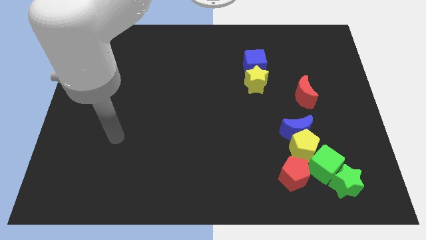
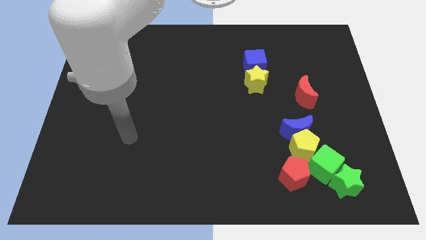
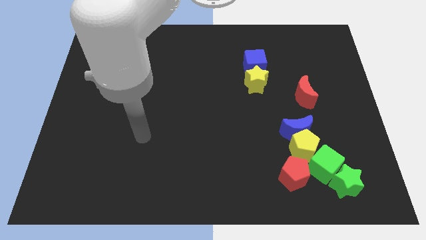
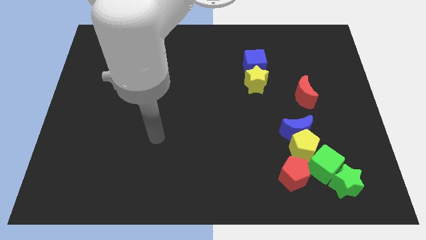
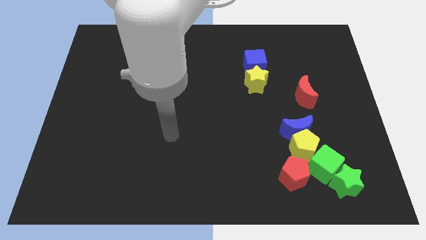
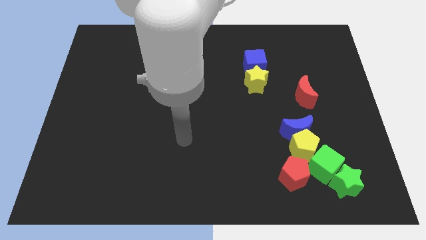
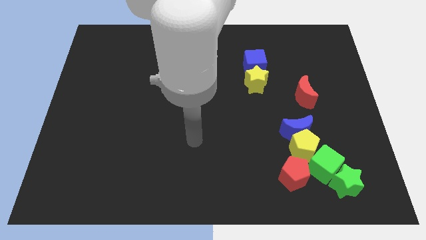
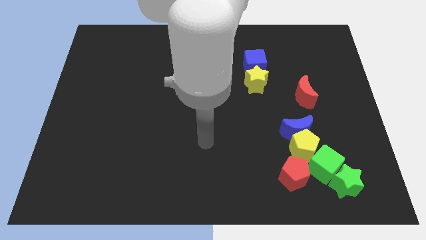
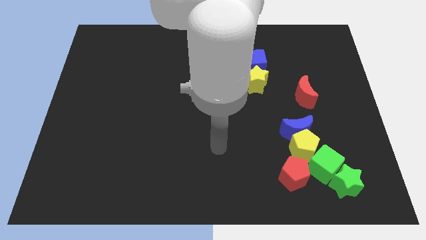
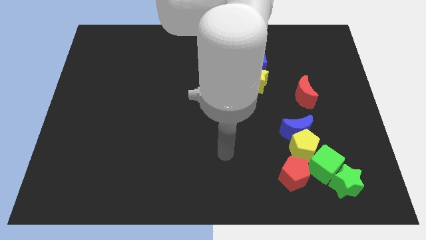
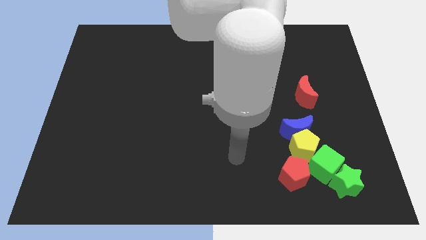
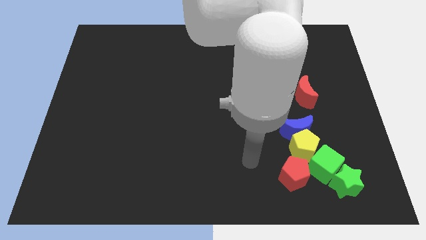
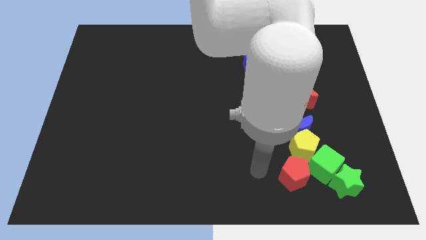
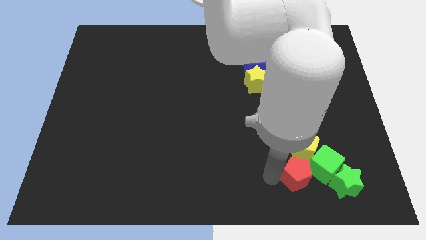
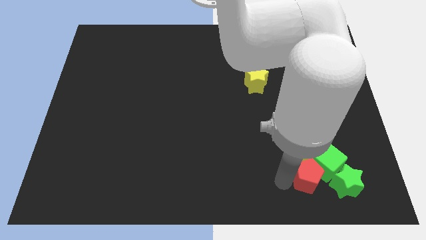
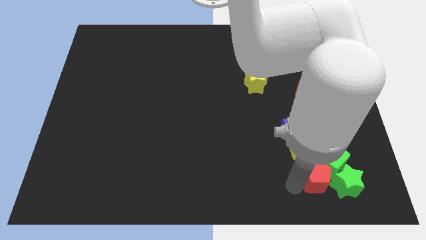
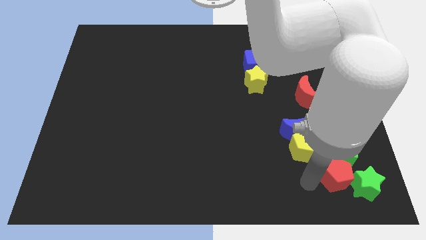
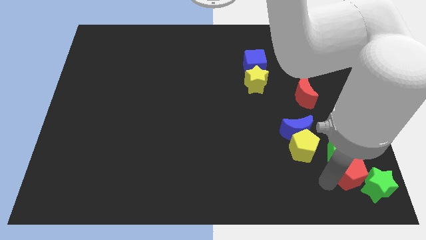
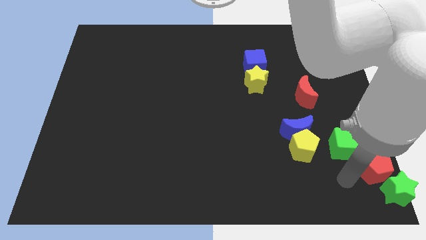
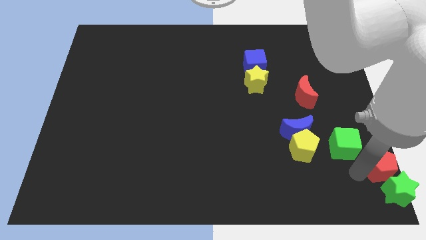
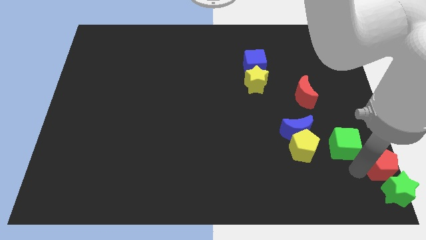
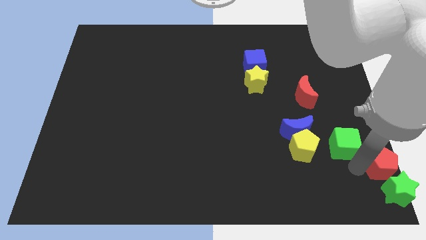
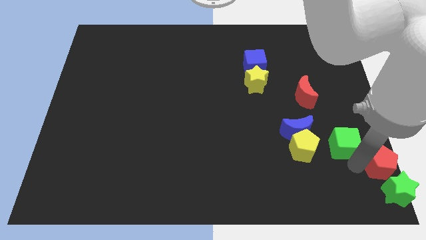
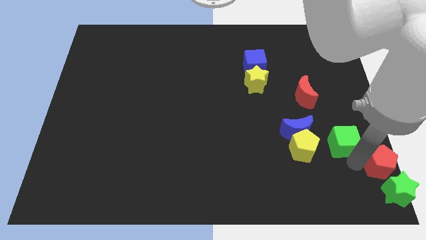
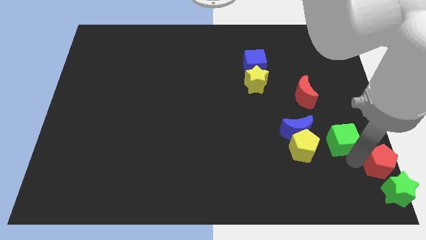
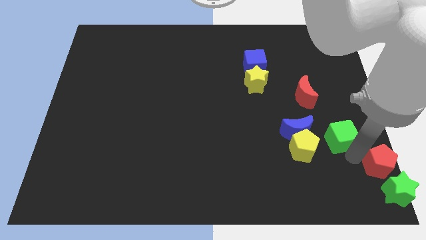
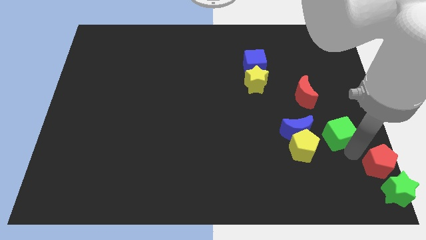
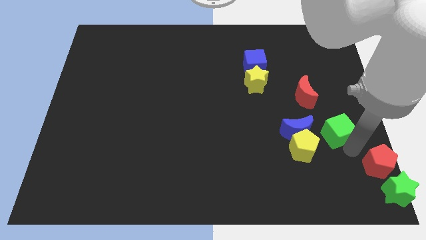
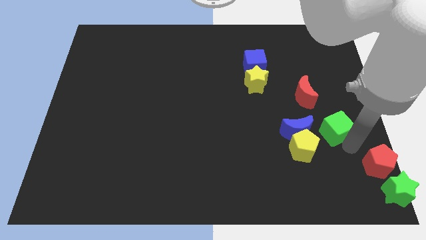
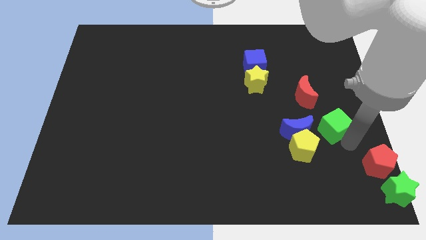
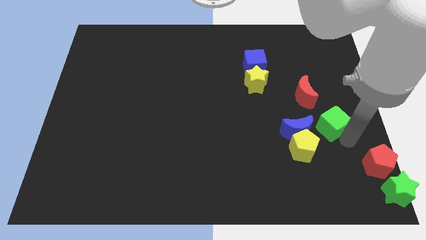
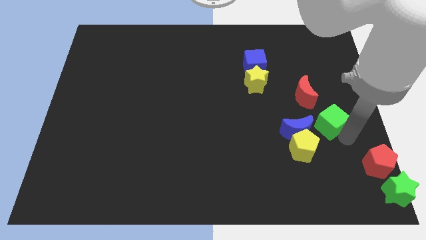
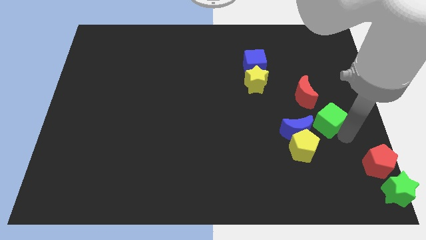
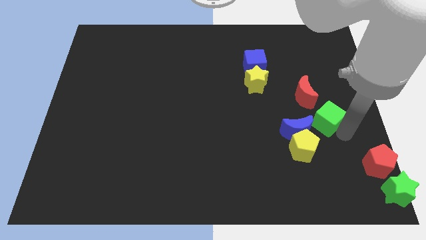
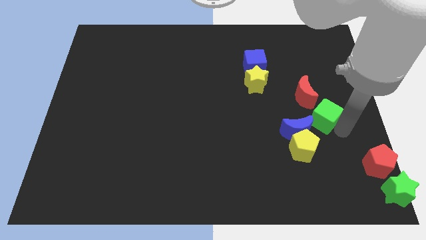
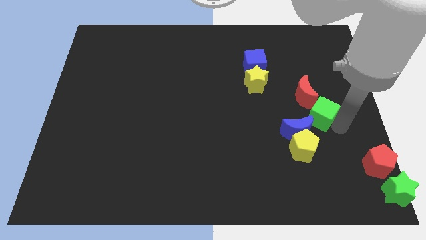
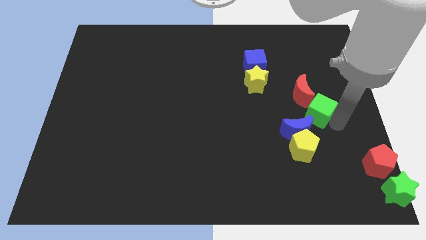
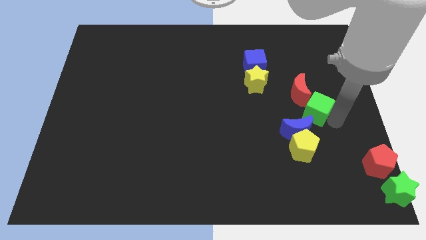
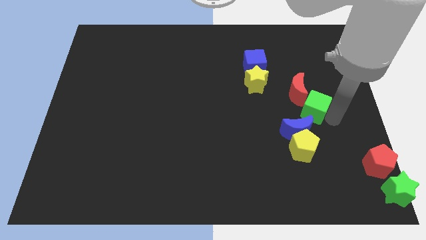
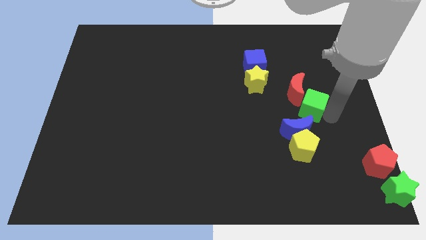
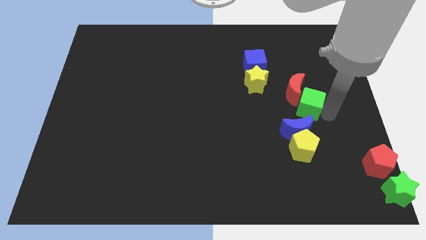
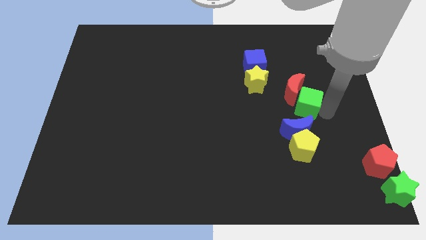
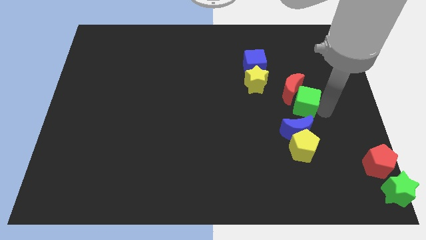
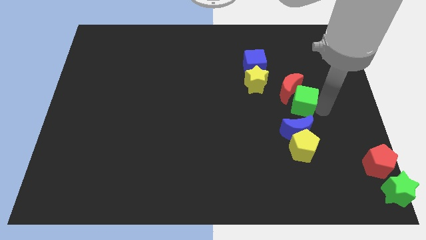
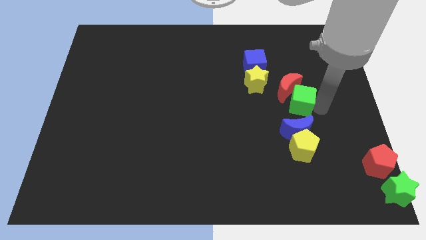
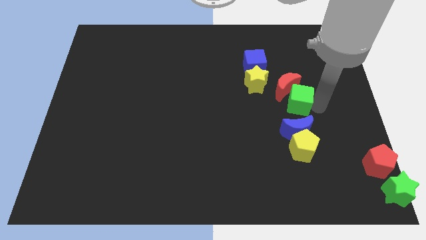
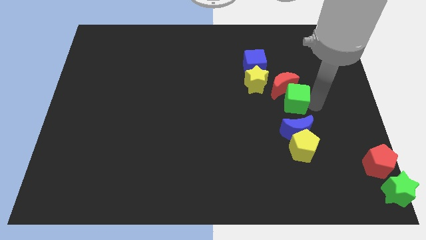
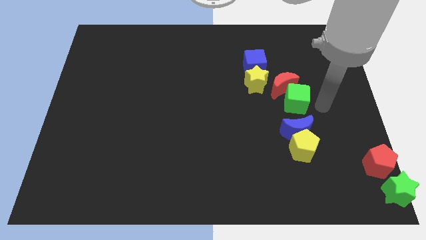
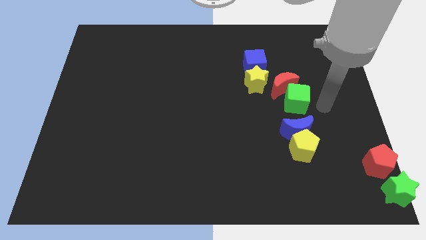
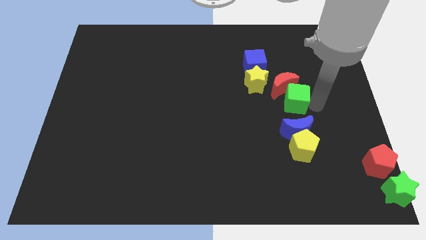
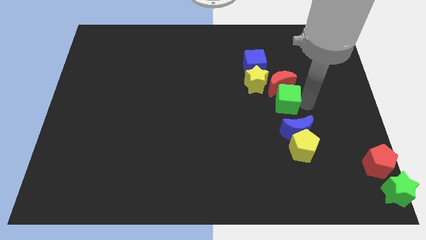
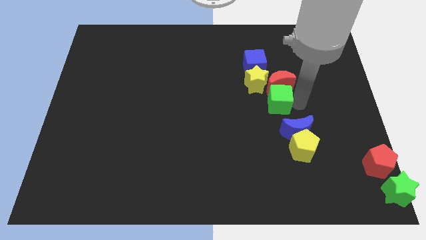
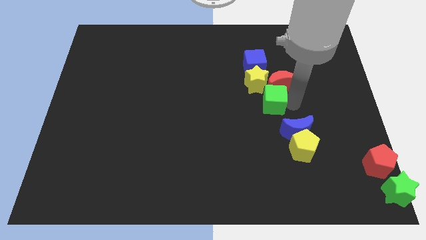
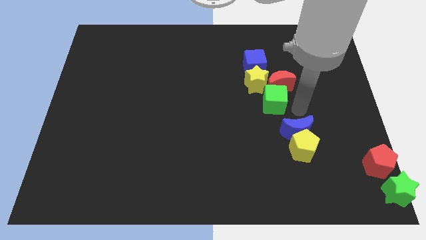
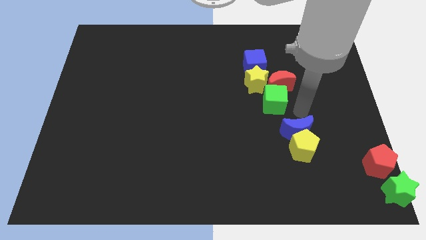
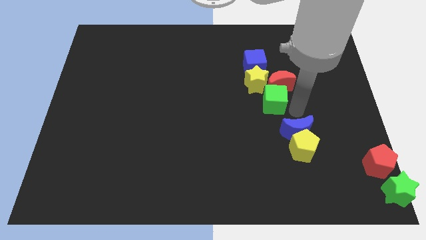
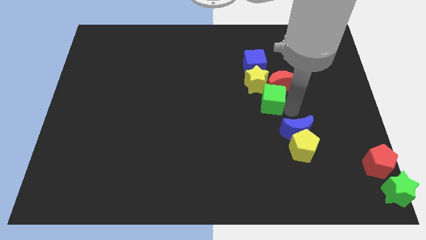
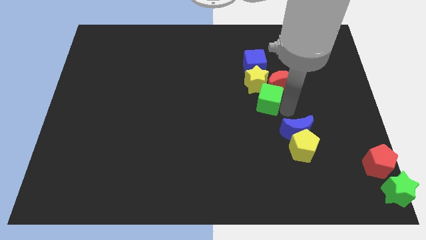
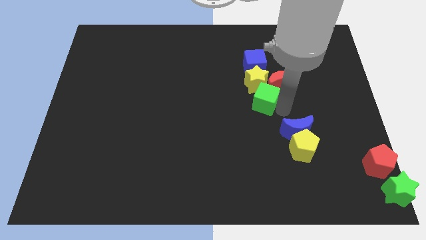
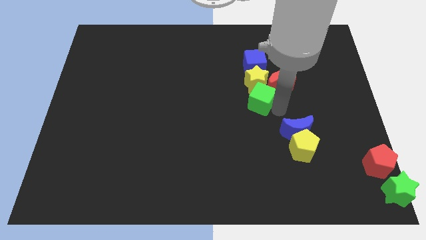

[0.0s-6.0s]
push the green cube upwards and to the left

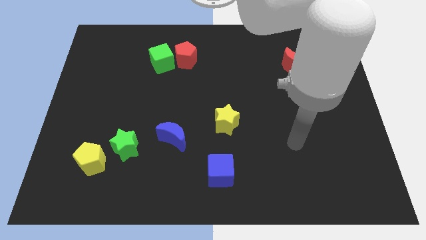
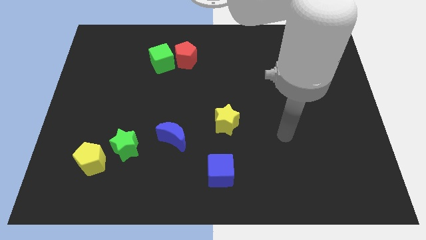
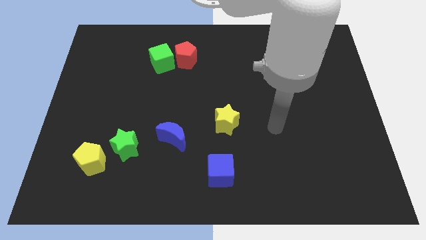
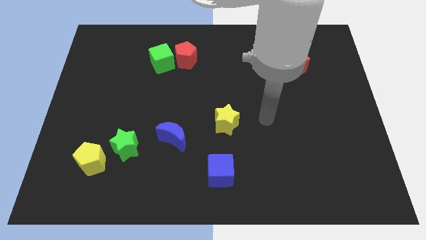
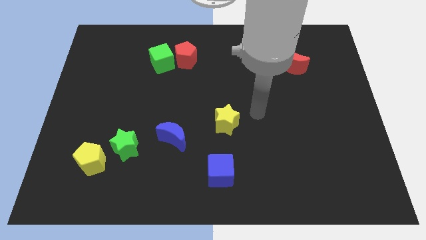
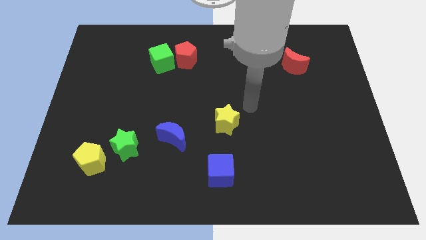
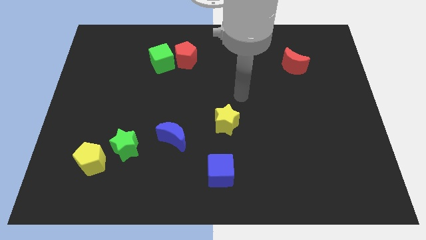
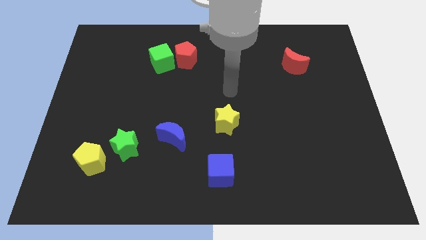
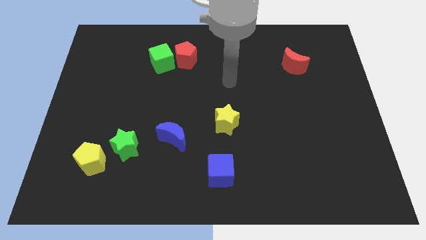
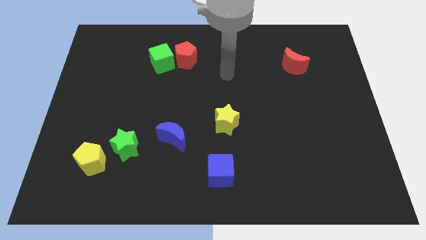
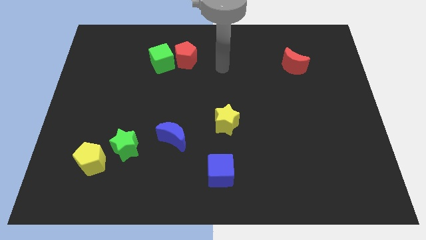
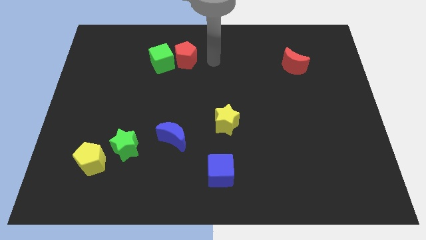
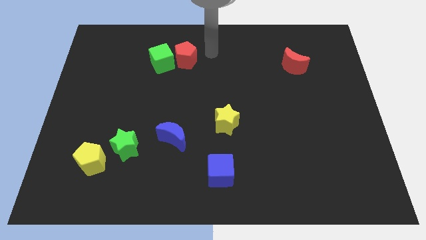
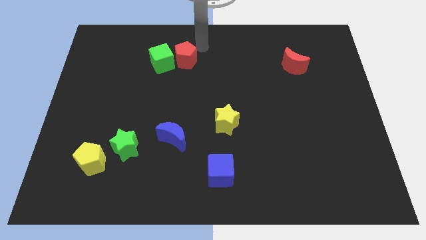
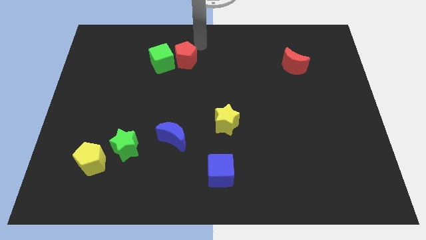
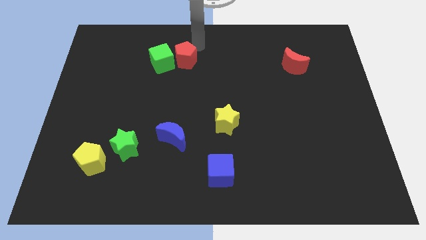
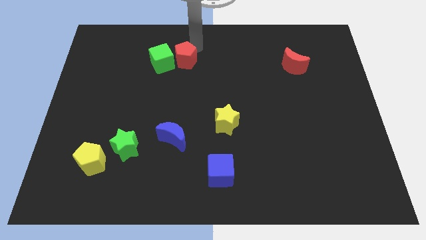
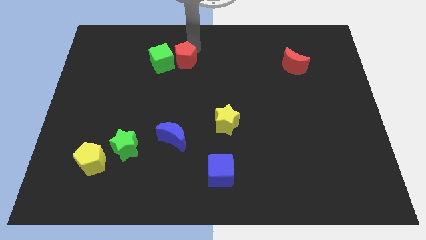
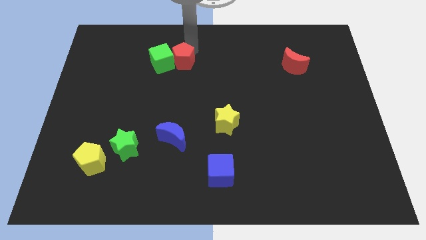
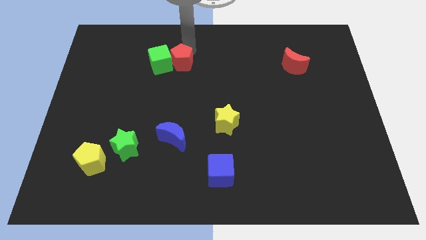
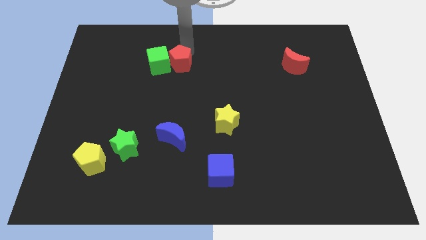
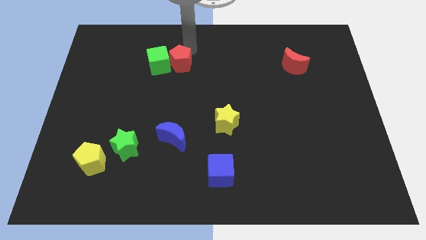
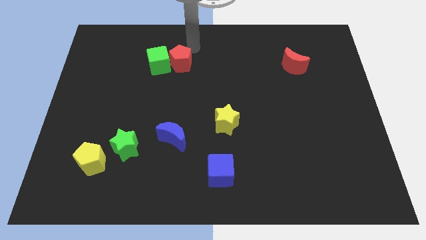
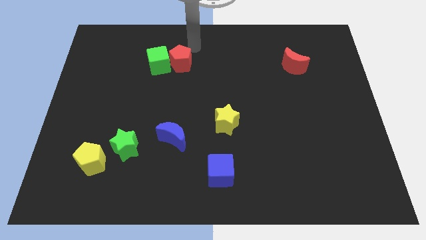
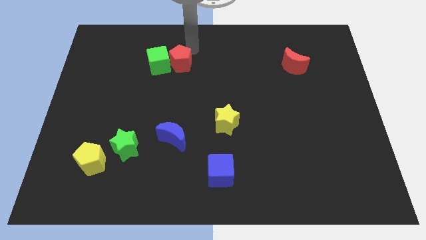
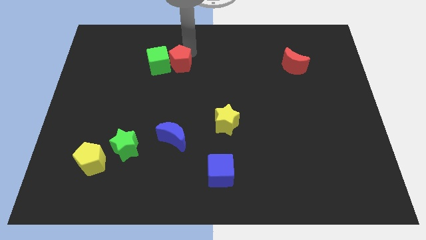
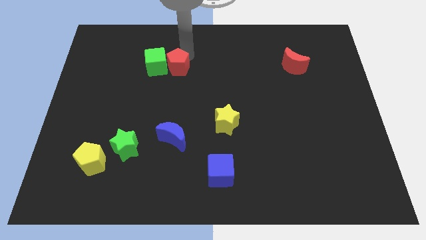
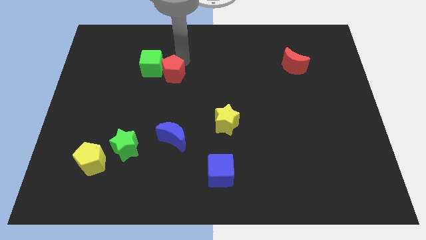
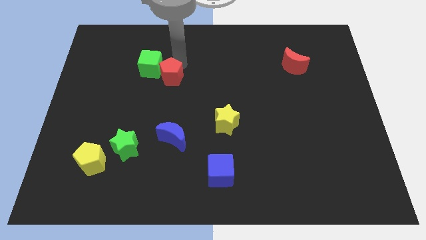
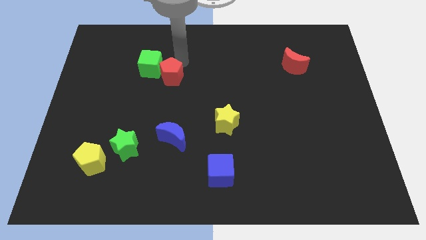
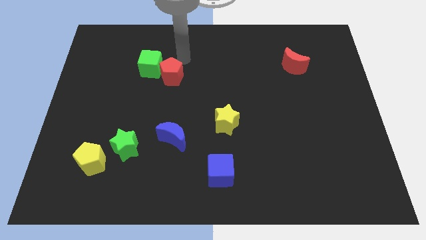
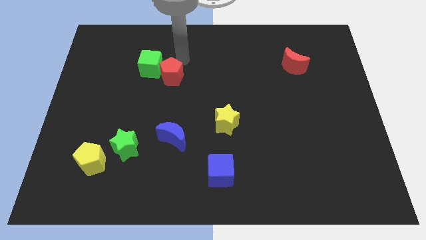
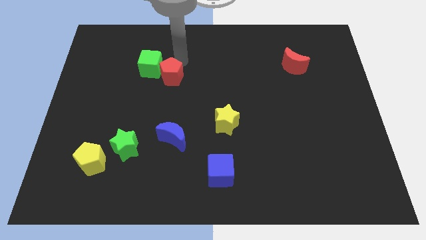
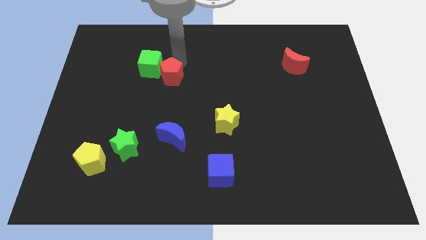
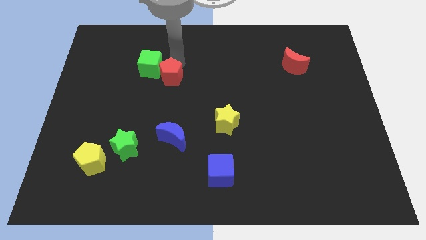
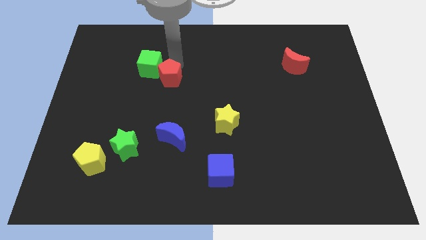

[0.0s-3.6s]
push the red pentagon down and to the left slightly
